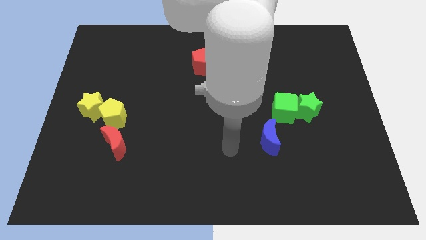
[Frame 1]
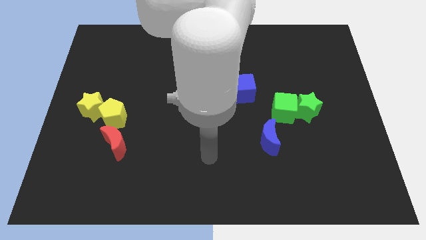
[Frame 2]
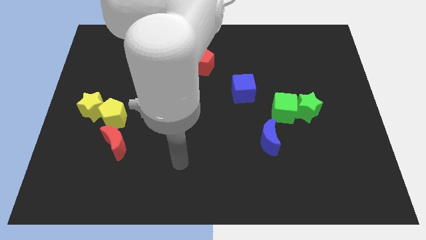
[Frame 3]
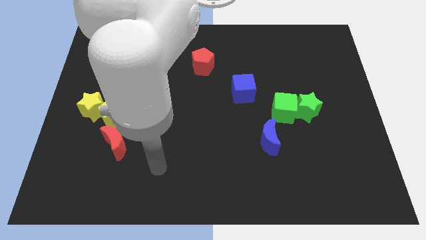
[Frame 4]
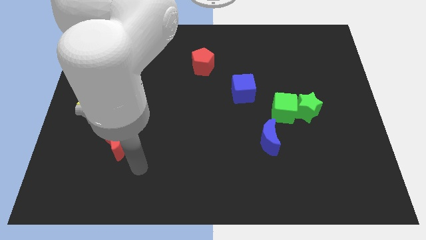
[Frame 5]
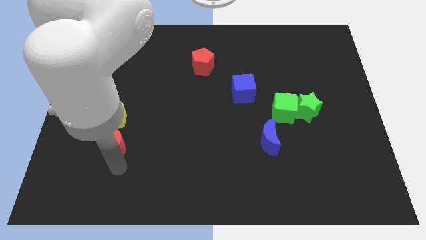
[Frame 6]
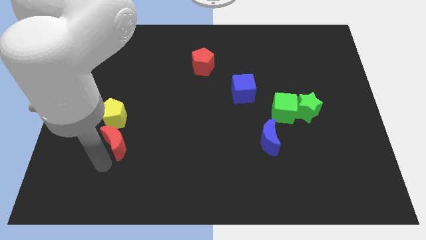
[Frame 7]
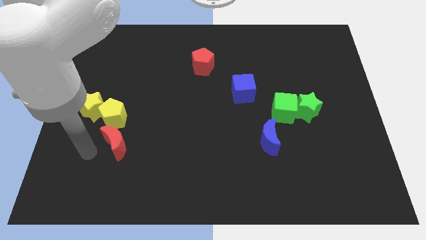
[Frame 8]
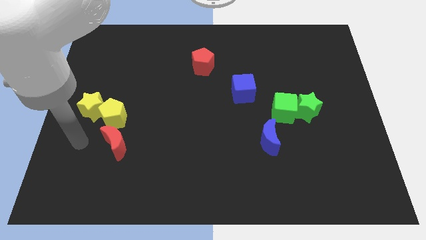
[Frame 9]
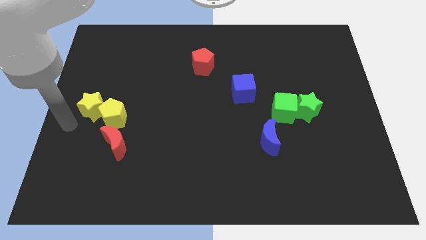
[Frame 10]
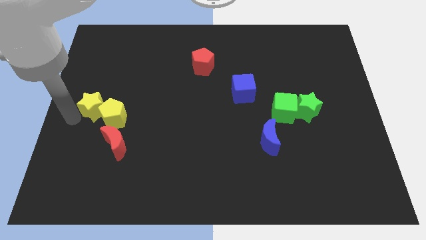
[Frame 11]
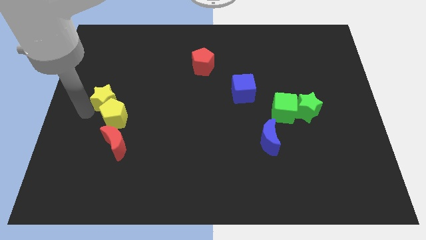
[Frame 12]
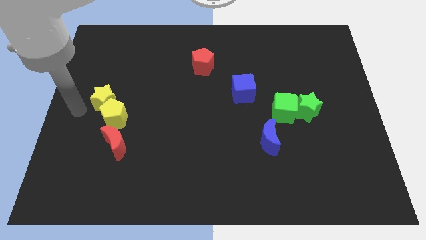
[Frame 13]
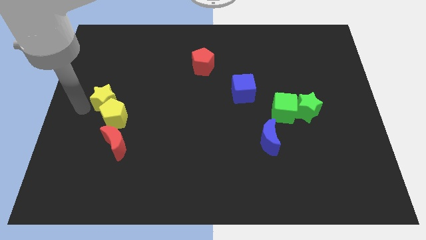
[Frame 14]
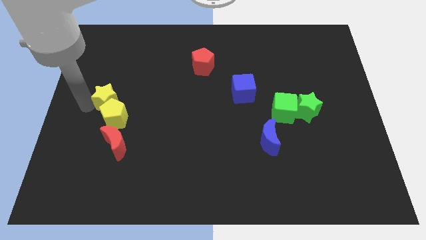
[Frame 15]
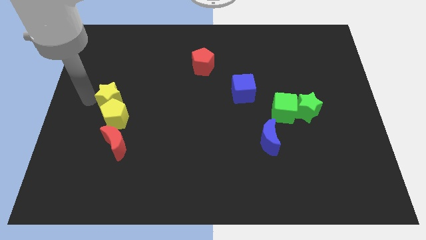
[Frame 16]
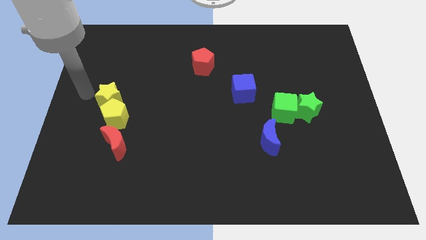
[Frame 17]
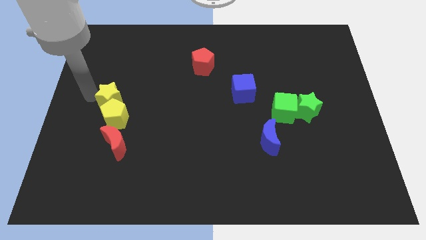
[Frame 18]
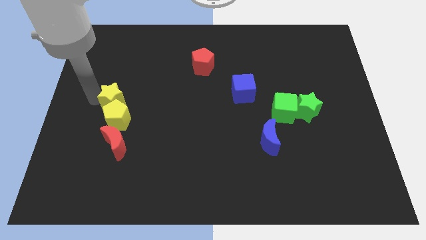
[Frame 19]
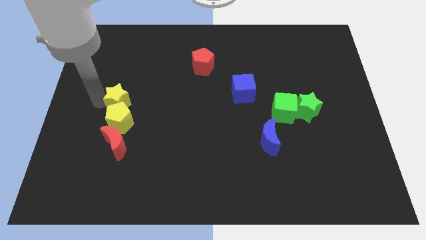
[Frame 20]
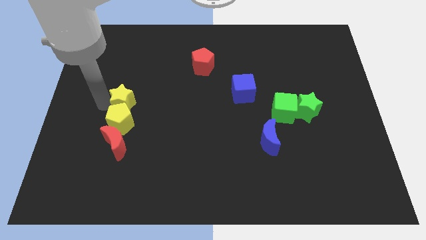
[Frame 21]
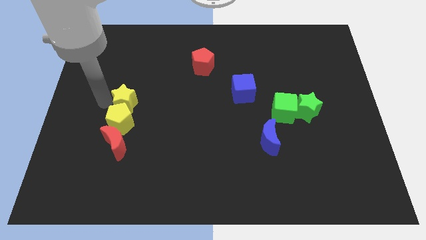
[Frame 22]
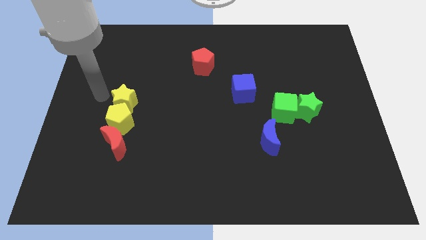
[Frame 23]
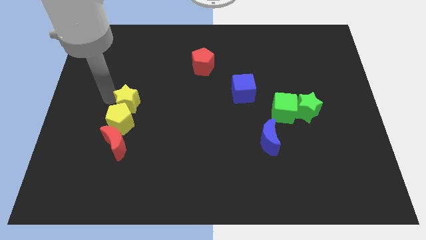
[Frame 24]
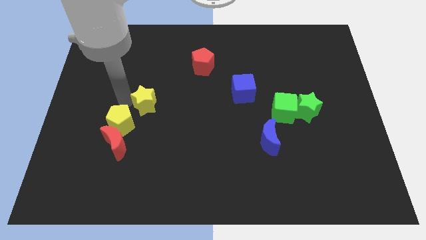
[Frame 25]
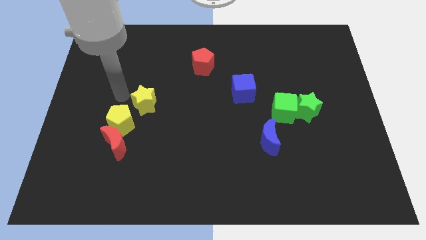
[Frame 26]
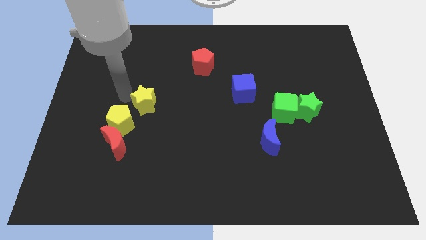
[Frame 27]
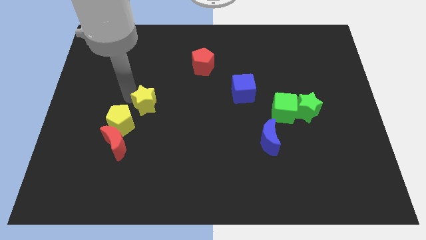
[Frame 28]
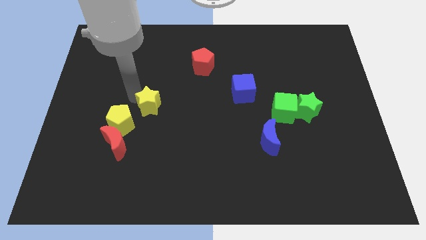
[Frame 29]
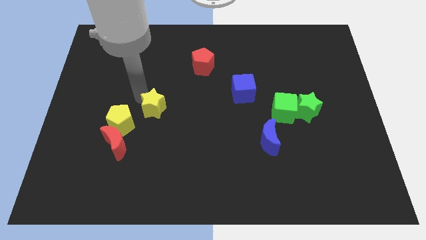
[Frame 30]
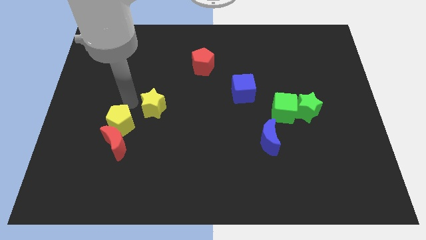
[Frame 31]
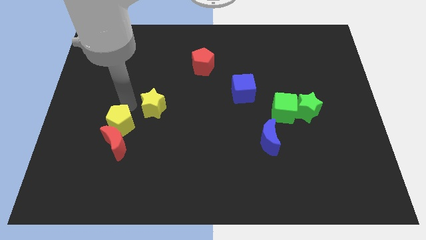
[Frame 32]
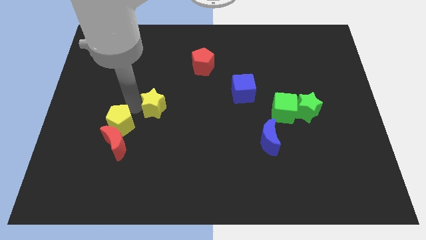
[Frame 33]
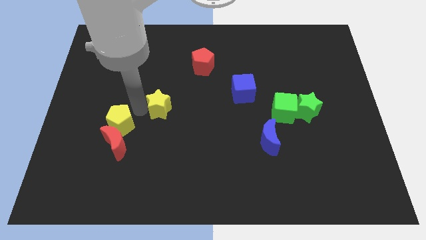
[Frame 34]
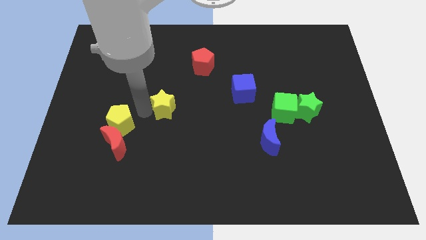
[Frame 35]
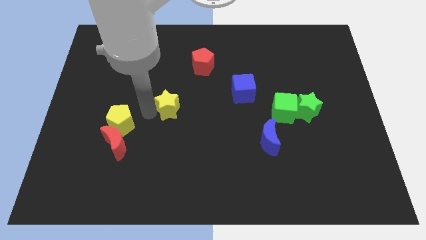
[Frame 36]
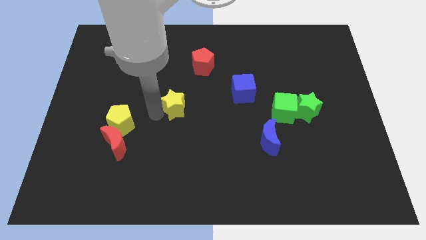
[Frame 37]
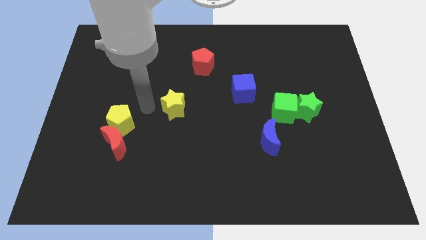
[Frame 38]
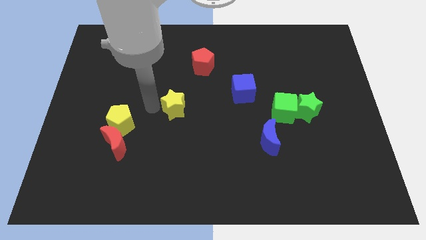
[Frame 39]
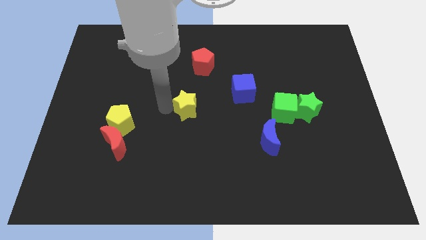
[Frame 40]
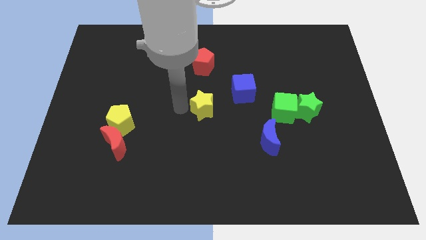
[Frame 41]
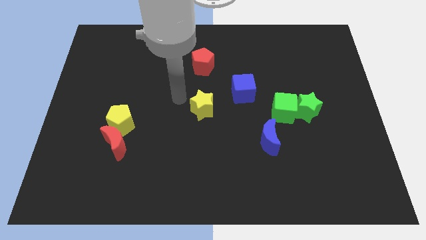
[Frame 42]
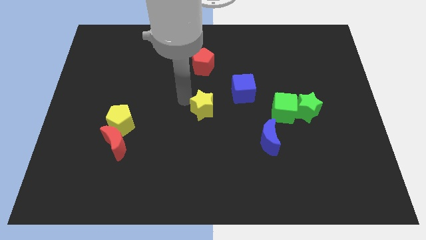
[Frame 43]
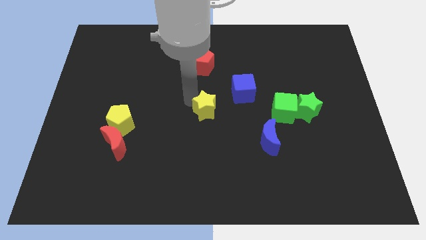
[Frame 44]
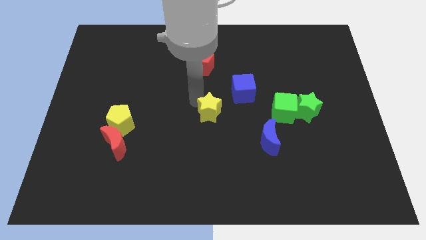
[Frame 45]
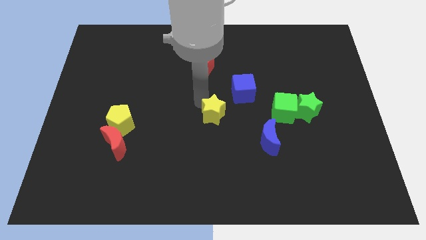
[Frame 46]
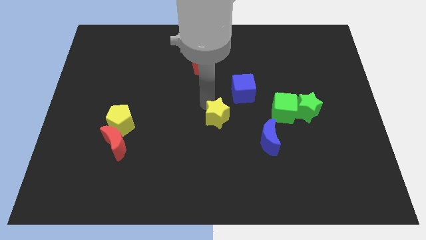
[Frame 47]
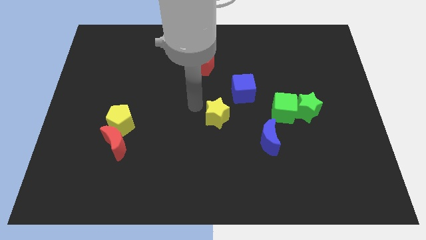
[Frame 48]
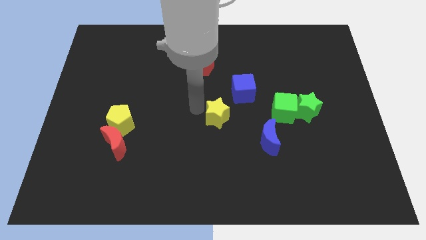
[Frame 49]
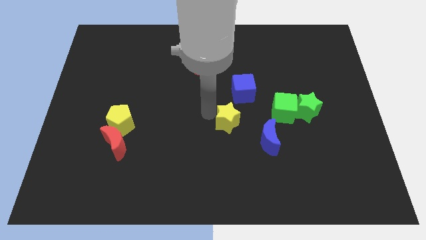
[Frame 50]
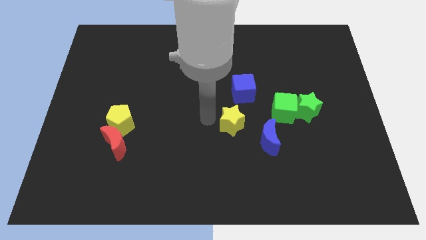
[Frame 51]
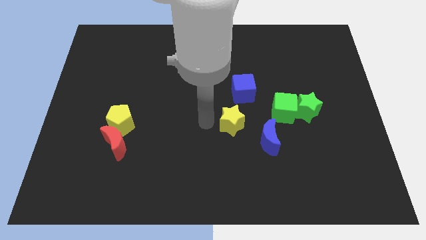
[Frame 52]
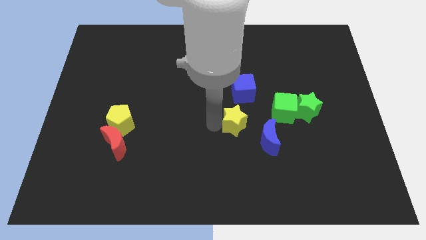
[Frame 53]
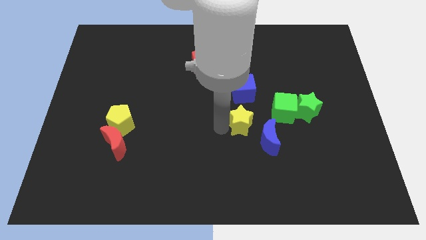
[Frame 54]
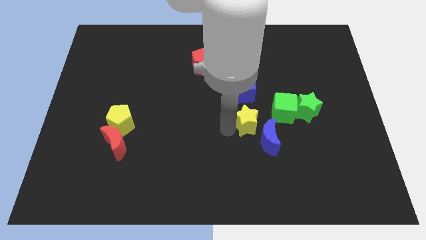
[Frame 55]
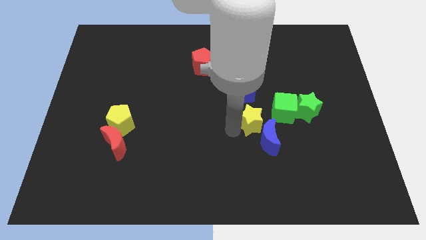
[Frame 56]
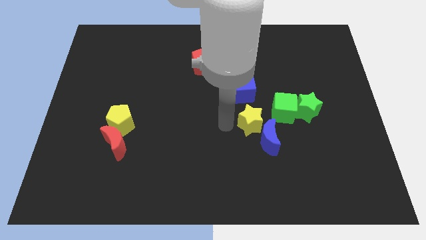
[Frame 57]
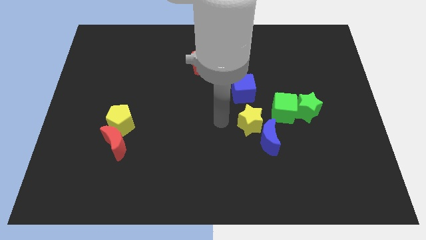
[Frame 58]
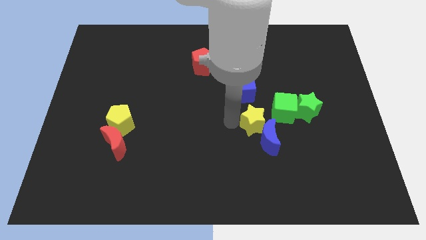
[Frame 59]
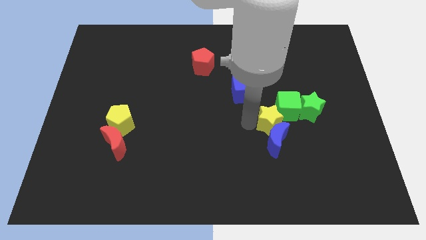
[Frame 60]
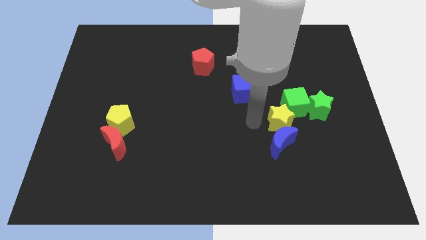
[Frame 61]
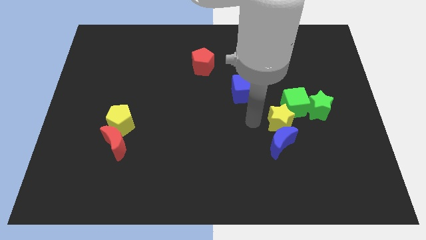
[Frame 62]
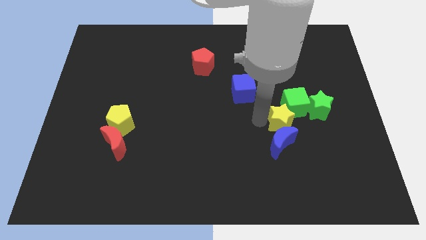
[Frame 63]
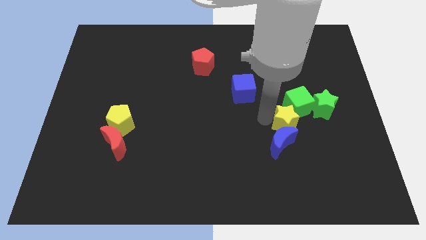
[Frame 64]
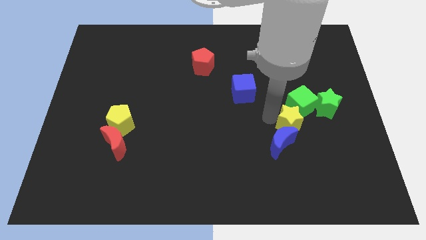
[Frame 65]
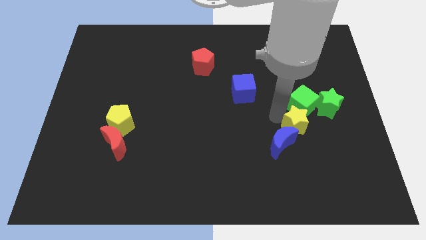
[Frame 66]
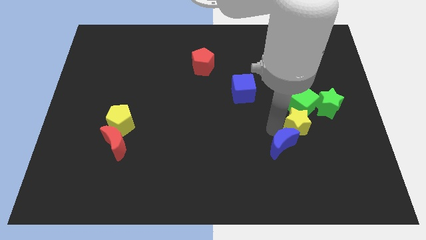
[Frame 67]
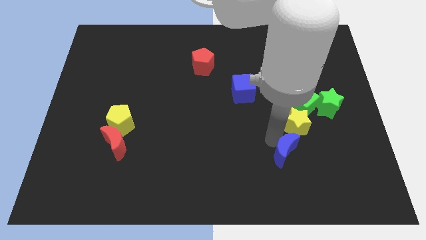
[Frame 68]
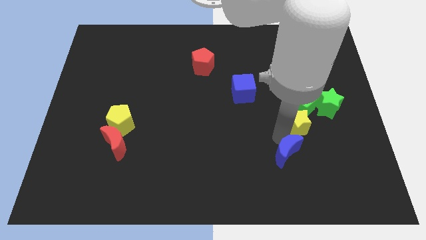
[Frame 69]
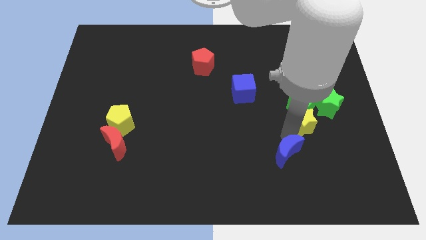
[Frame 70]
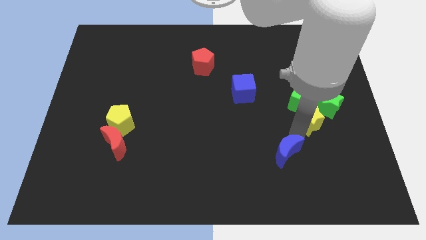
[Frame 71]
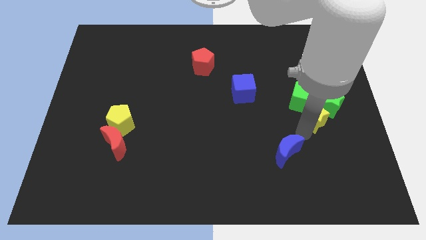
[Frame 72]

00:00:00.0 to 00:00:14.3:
put the yellow star next to the green star
